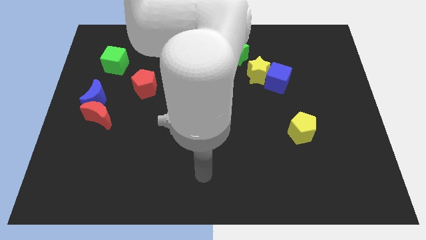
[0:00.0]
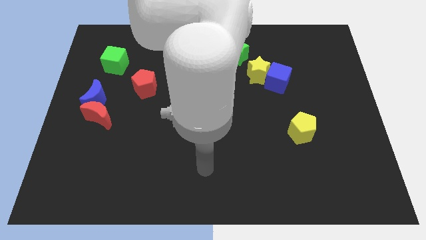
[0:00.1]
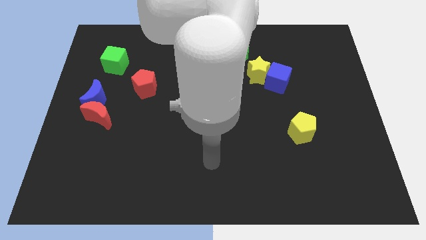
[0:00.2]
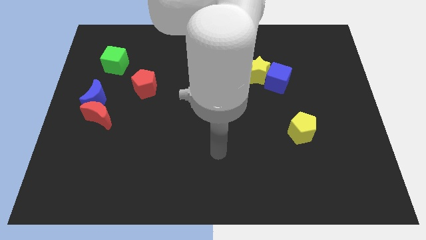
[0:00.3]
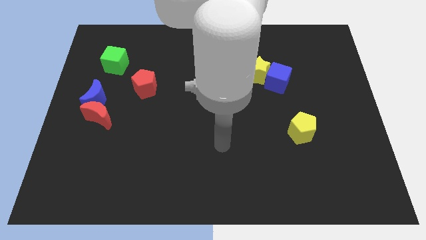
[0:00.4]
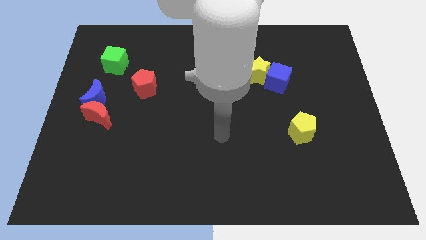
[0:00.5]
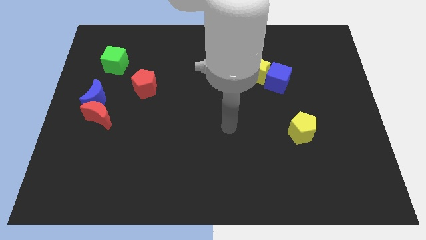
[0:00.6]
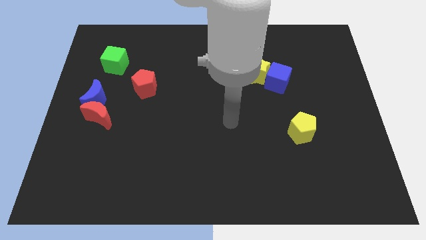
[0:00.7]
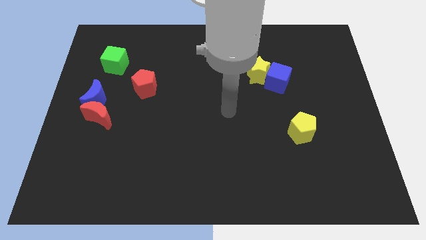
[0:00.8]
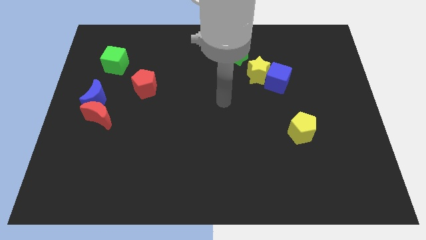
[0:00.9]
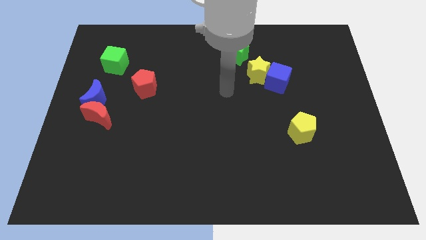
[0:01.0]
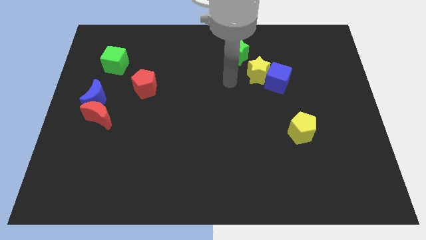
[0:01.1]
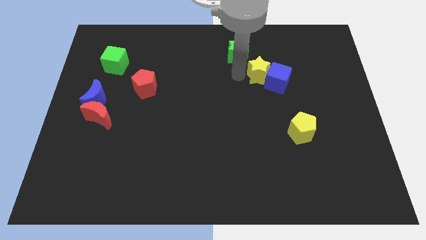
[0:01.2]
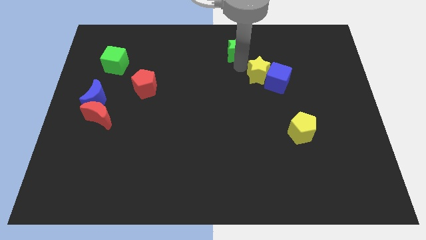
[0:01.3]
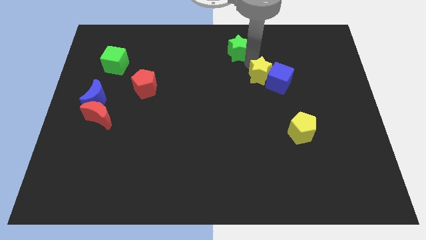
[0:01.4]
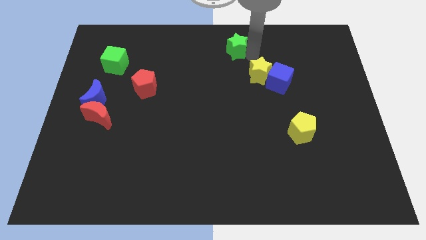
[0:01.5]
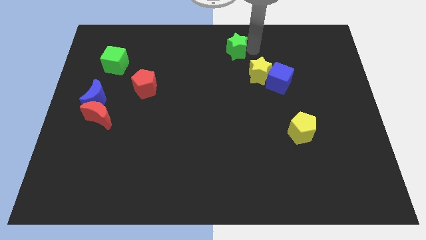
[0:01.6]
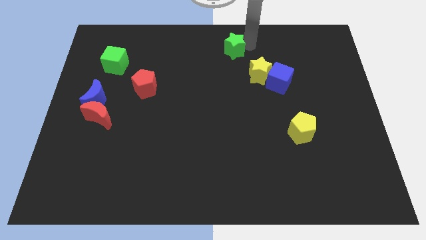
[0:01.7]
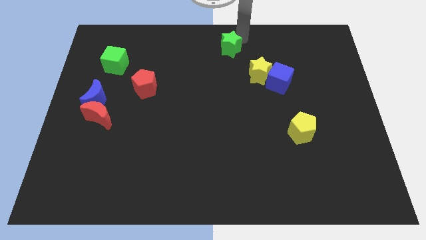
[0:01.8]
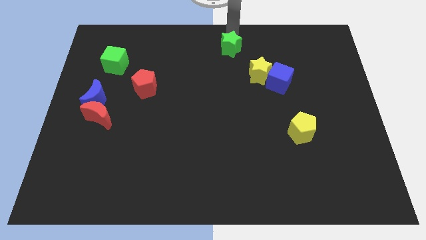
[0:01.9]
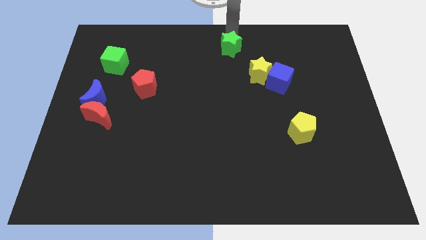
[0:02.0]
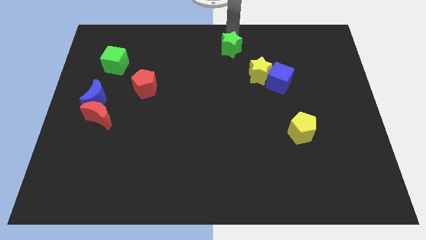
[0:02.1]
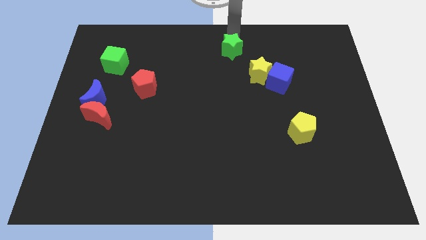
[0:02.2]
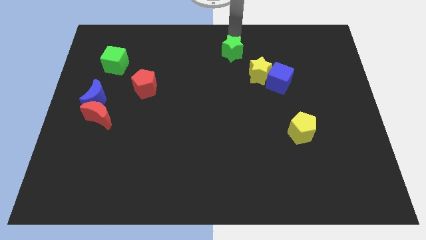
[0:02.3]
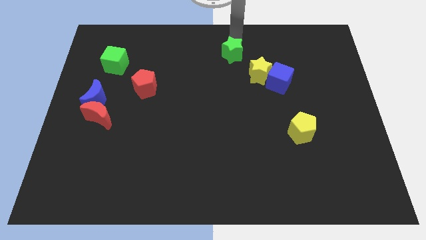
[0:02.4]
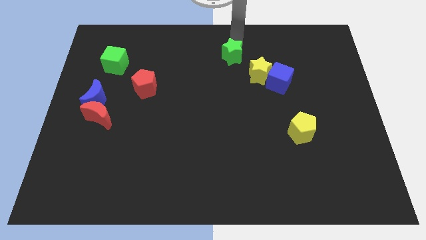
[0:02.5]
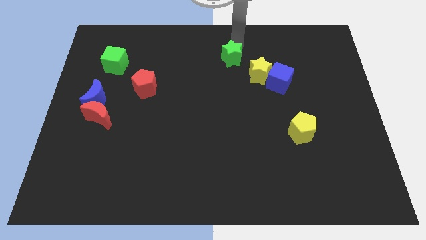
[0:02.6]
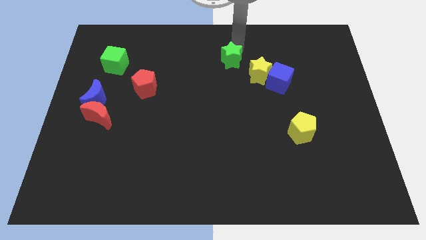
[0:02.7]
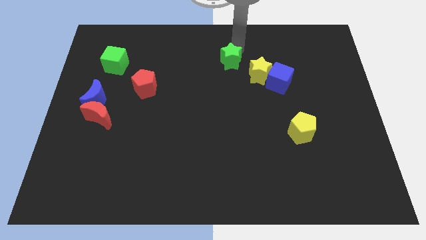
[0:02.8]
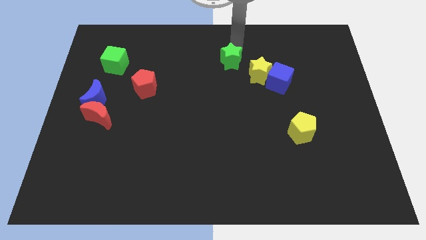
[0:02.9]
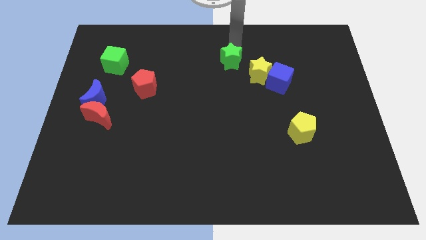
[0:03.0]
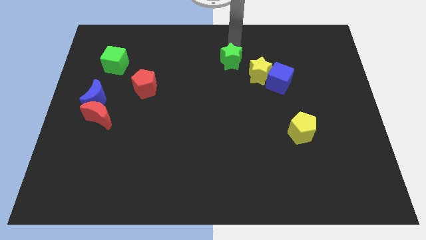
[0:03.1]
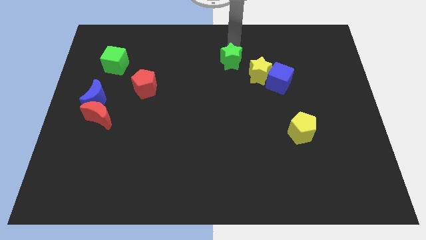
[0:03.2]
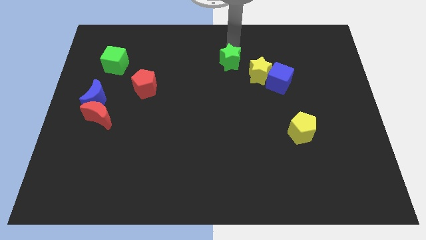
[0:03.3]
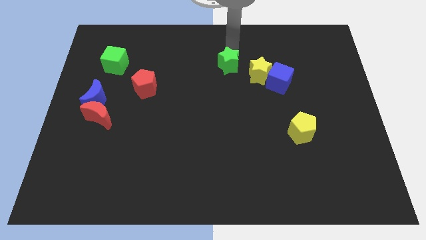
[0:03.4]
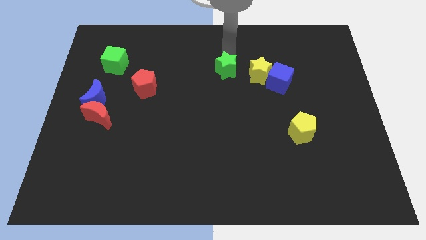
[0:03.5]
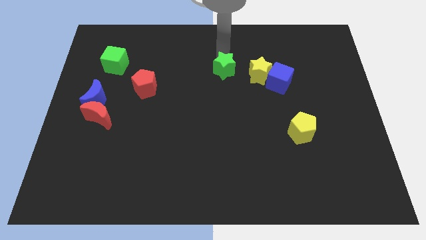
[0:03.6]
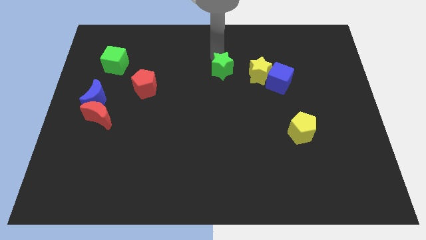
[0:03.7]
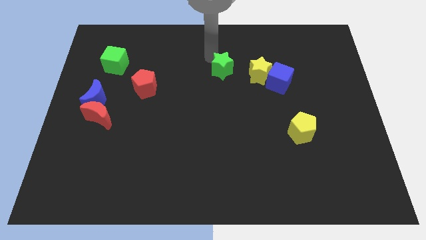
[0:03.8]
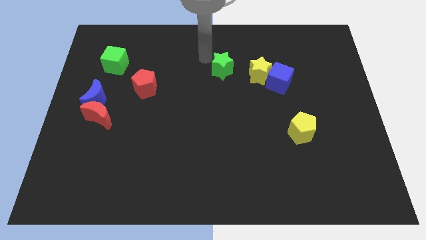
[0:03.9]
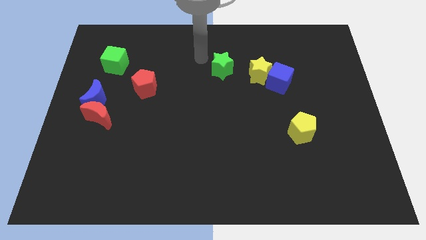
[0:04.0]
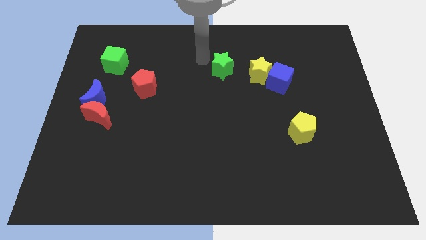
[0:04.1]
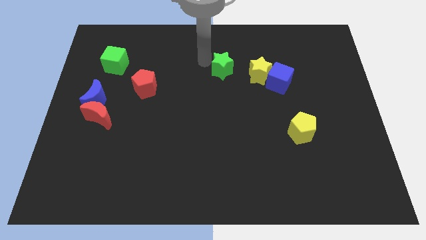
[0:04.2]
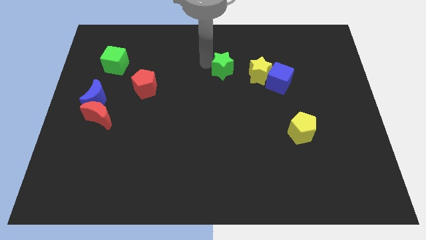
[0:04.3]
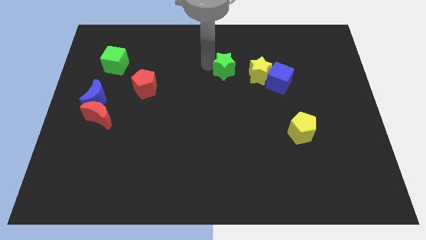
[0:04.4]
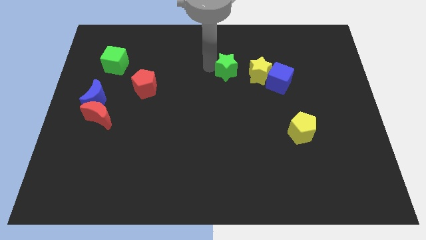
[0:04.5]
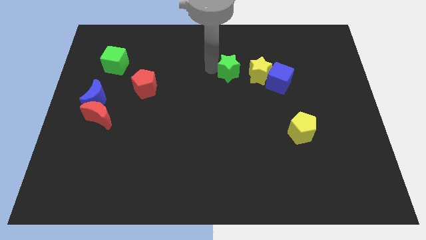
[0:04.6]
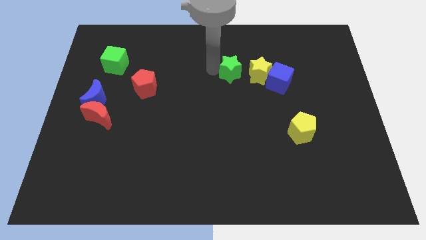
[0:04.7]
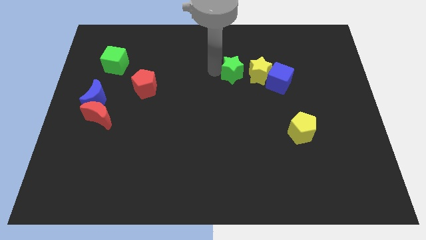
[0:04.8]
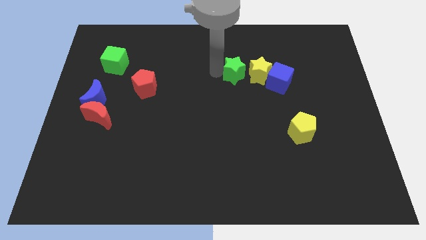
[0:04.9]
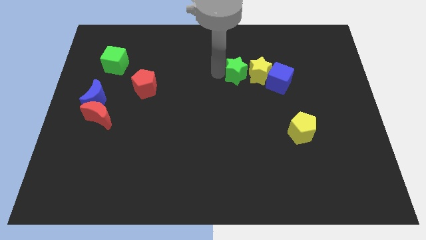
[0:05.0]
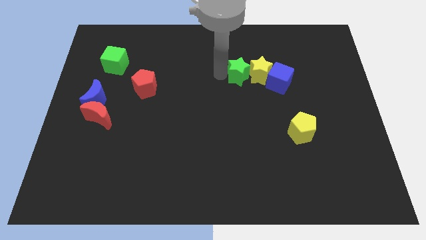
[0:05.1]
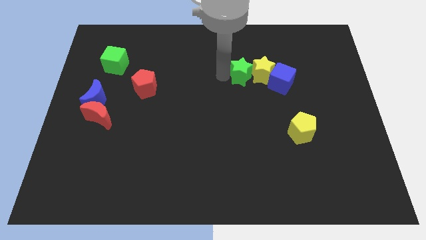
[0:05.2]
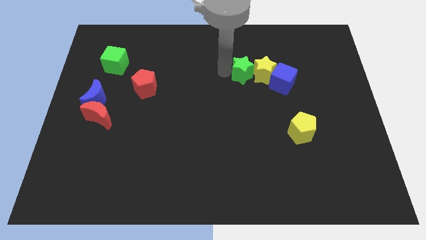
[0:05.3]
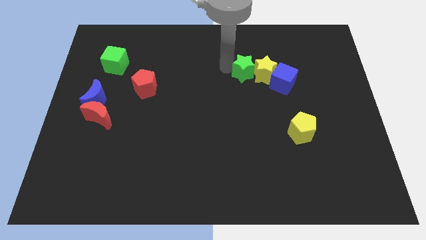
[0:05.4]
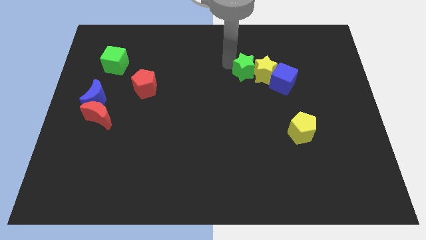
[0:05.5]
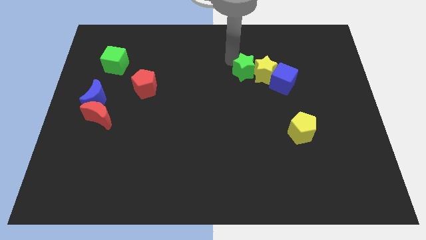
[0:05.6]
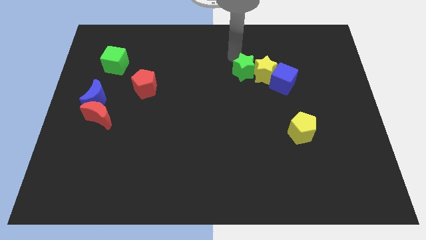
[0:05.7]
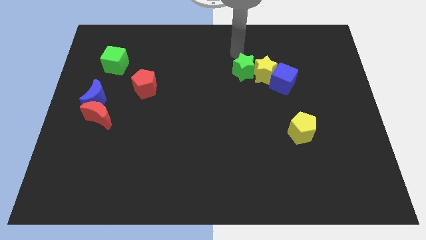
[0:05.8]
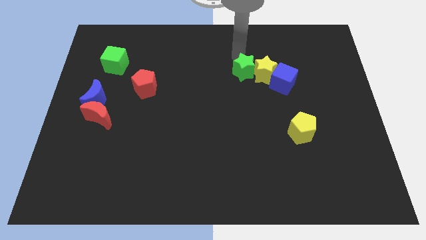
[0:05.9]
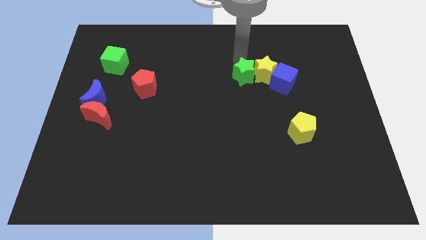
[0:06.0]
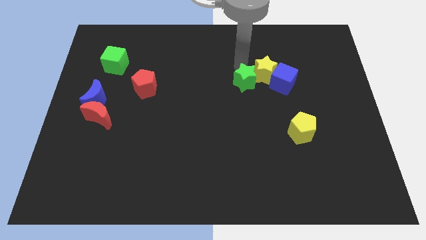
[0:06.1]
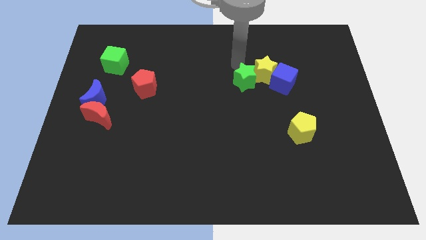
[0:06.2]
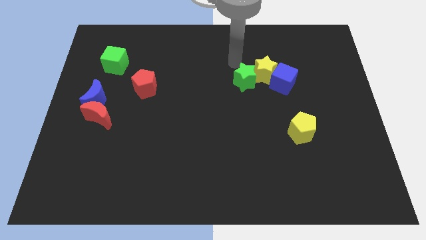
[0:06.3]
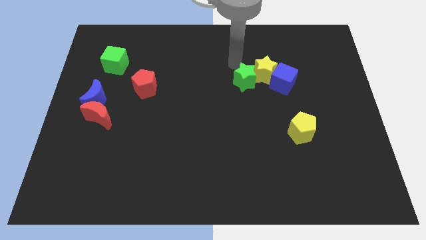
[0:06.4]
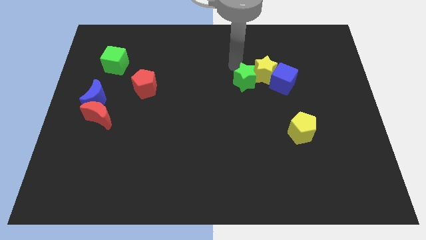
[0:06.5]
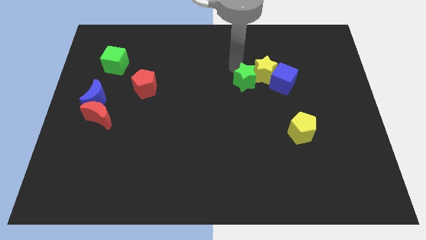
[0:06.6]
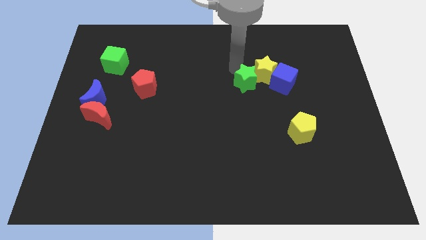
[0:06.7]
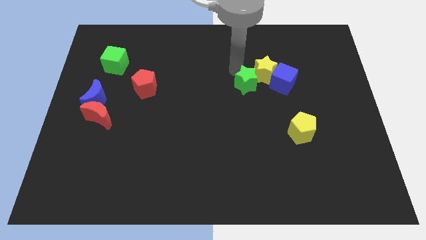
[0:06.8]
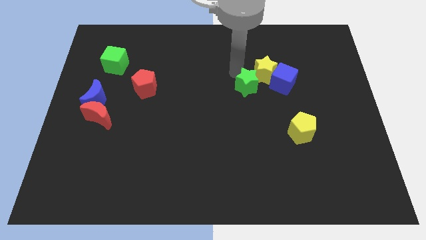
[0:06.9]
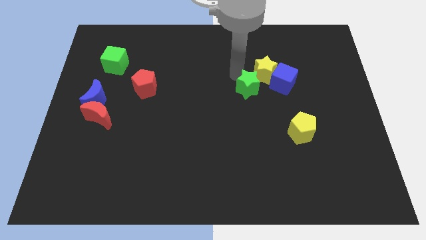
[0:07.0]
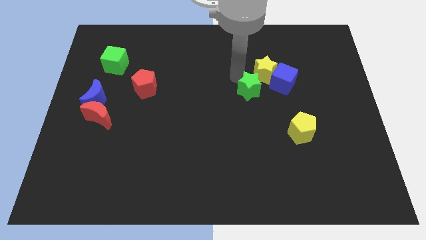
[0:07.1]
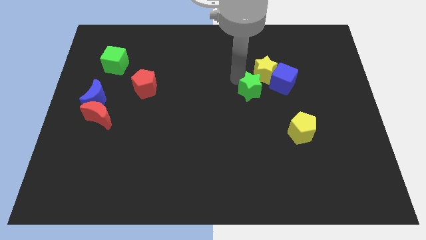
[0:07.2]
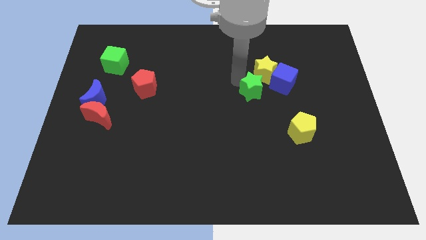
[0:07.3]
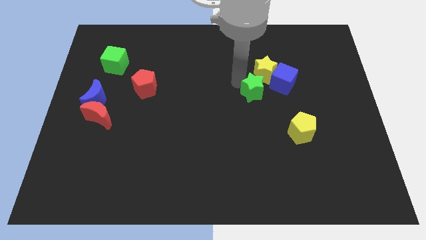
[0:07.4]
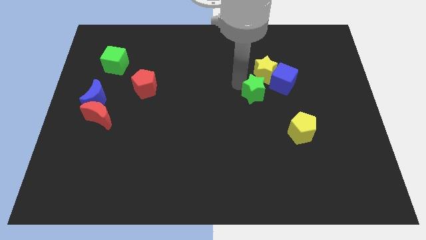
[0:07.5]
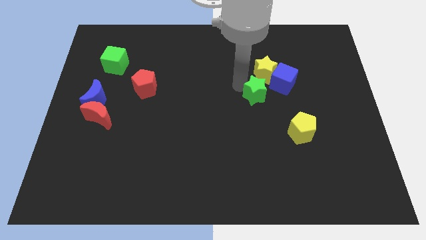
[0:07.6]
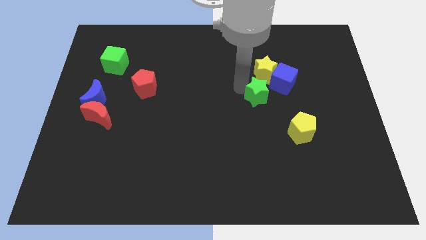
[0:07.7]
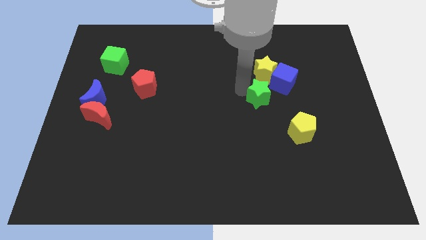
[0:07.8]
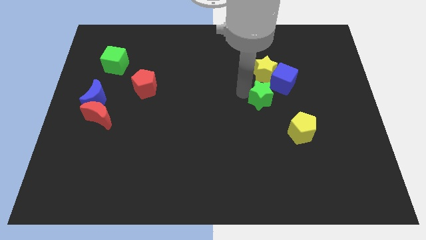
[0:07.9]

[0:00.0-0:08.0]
put the green star diagonally up and to the left of the yellow pentagon

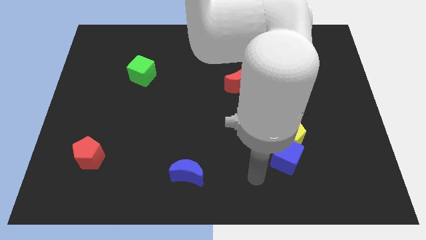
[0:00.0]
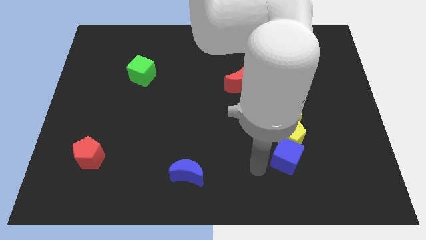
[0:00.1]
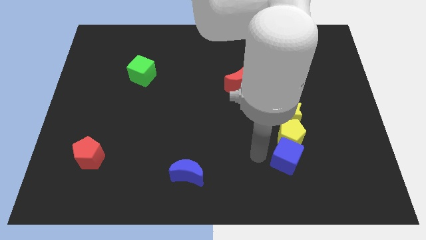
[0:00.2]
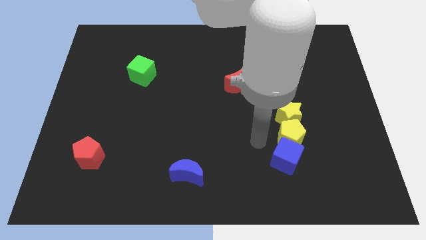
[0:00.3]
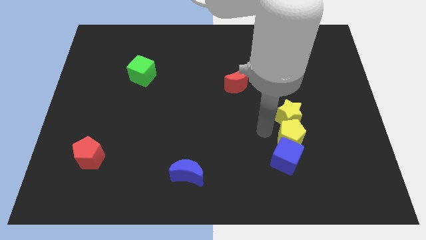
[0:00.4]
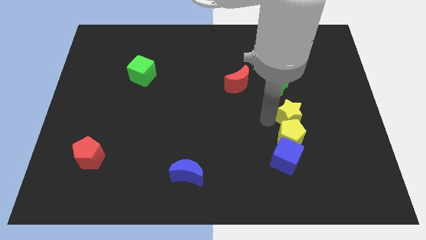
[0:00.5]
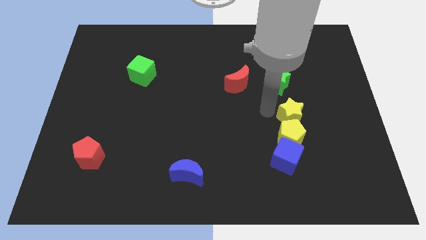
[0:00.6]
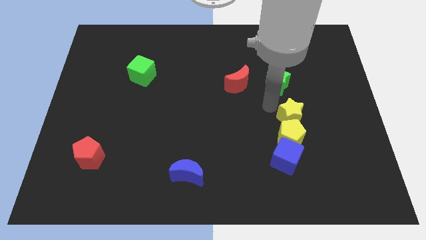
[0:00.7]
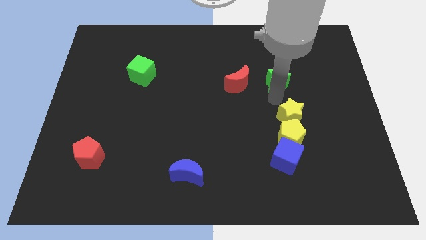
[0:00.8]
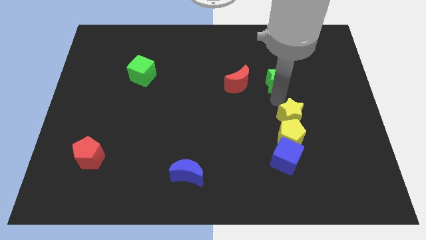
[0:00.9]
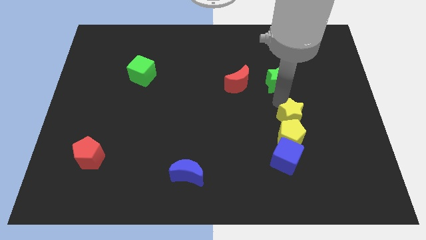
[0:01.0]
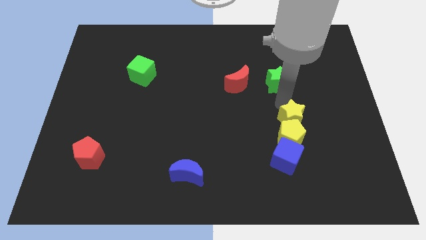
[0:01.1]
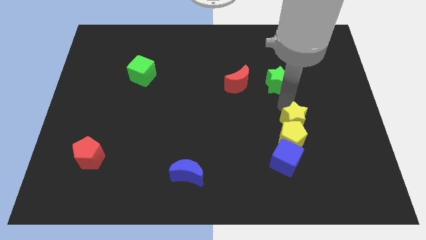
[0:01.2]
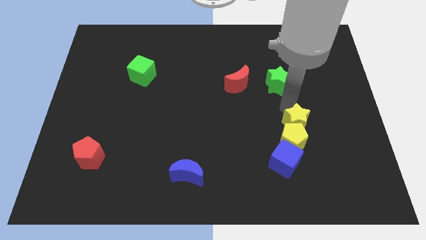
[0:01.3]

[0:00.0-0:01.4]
slide the yellow star to the top right side of the blue cube
